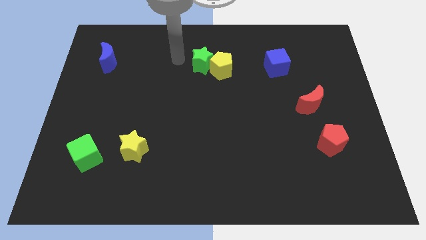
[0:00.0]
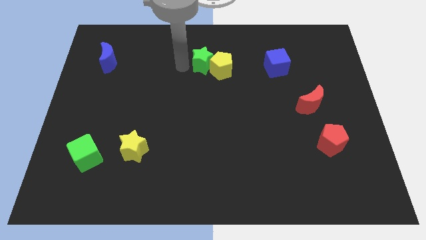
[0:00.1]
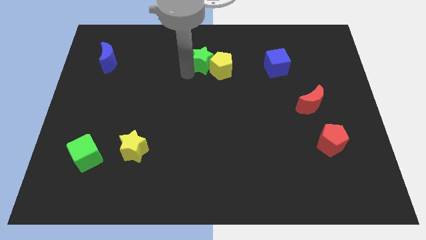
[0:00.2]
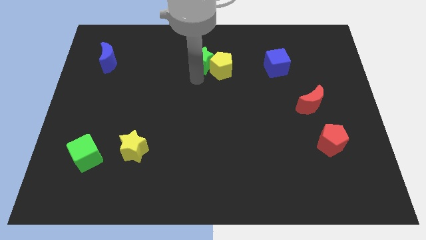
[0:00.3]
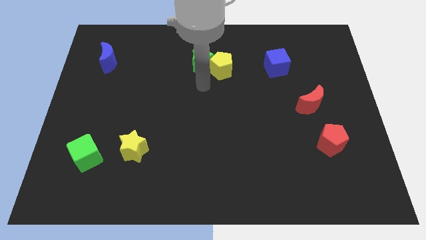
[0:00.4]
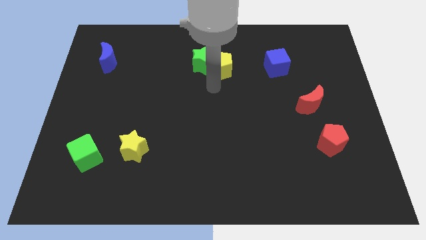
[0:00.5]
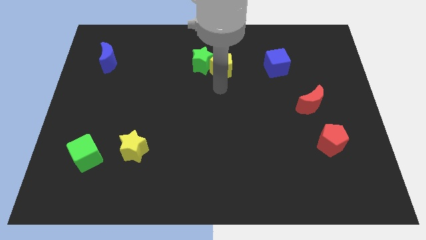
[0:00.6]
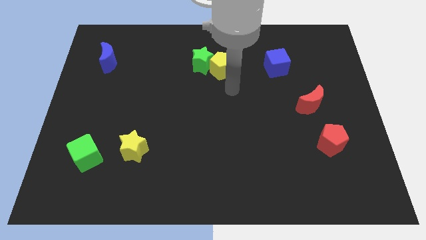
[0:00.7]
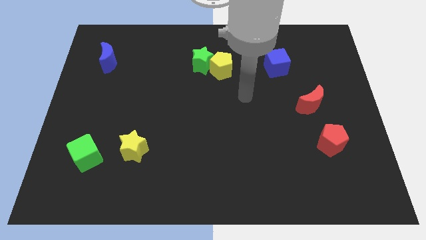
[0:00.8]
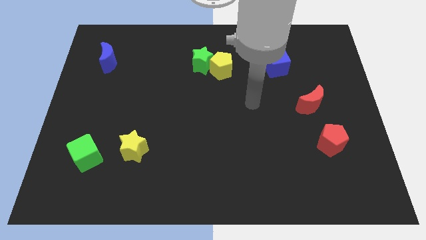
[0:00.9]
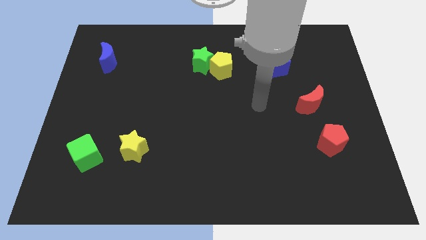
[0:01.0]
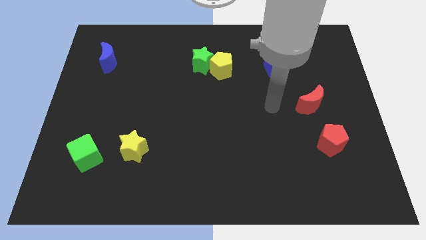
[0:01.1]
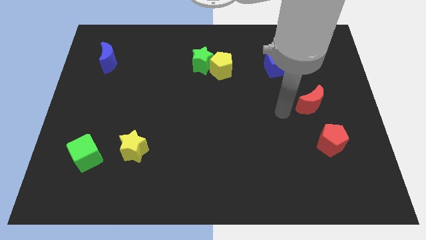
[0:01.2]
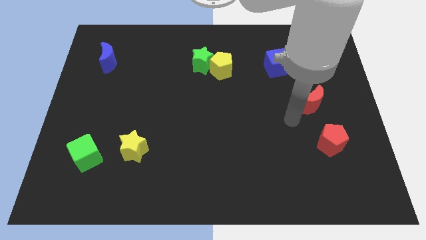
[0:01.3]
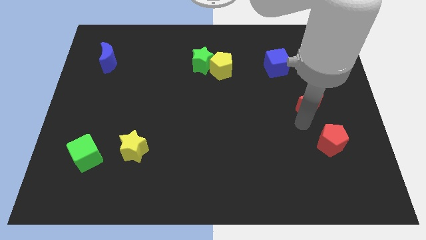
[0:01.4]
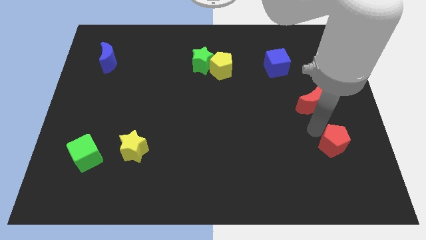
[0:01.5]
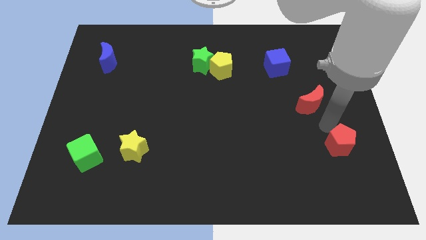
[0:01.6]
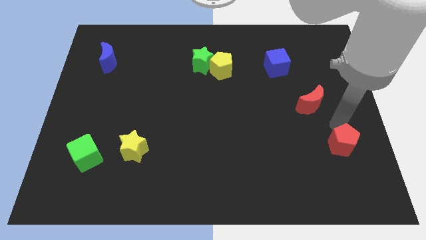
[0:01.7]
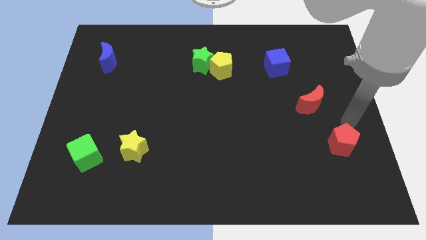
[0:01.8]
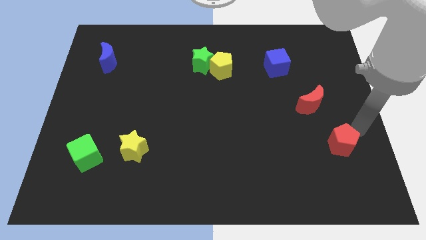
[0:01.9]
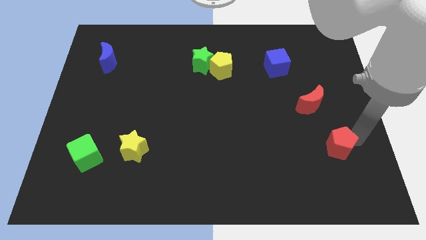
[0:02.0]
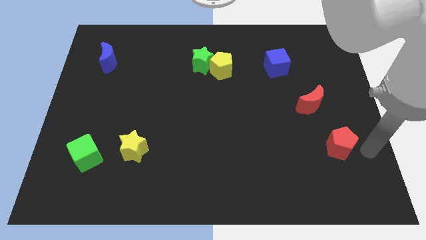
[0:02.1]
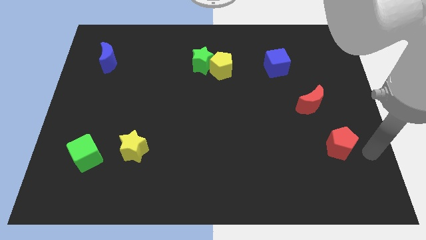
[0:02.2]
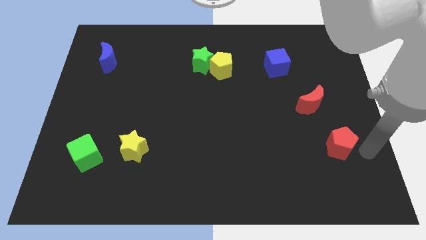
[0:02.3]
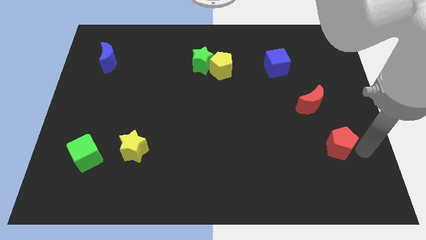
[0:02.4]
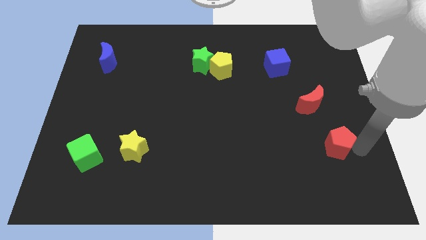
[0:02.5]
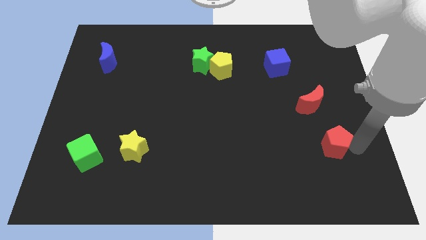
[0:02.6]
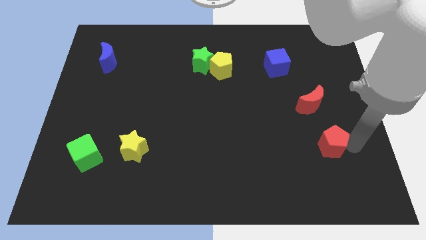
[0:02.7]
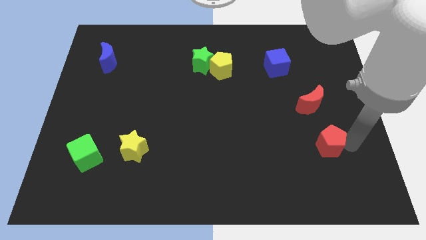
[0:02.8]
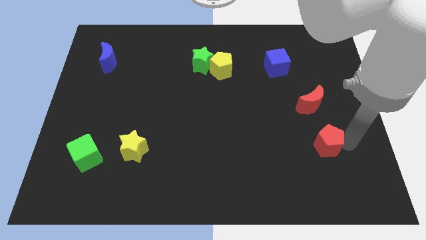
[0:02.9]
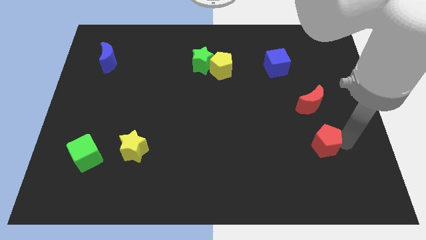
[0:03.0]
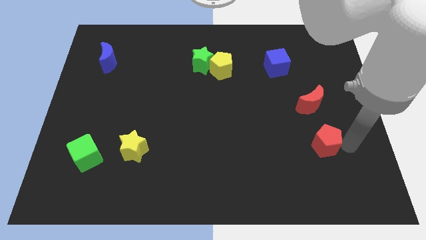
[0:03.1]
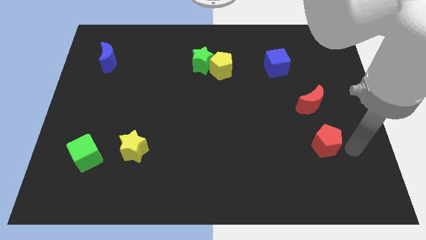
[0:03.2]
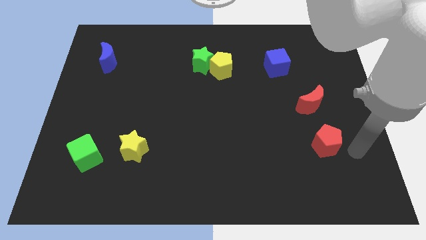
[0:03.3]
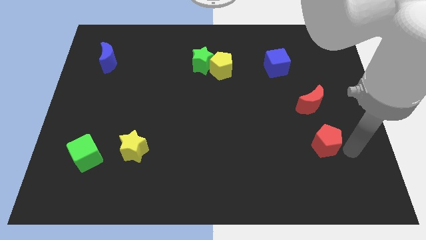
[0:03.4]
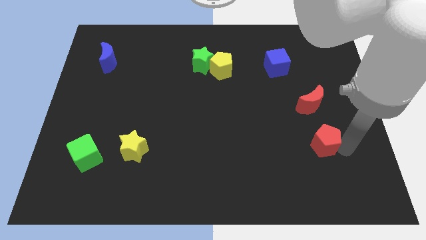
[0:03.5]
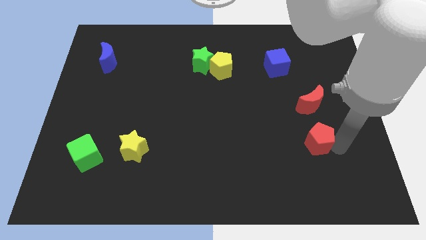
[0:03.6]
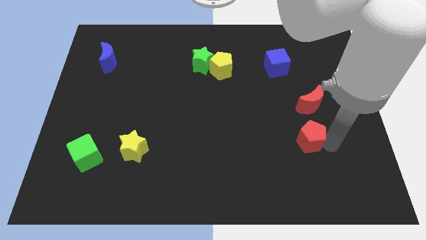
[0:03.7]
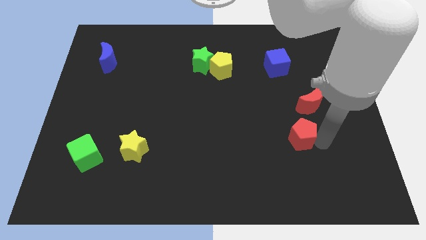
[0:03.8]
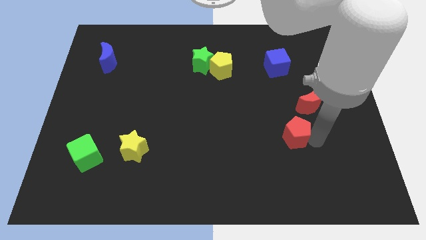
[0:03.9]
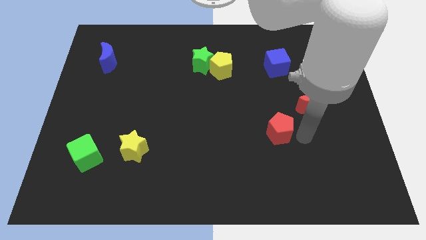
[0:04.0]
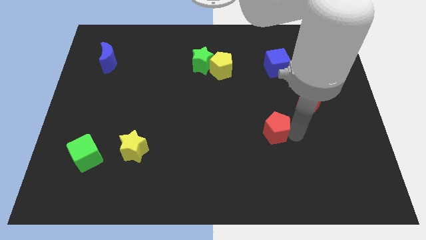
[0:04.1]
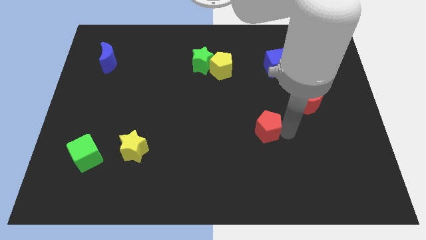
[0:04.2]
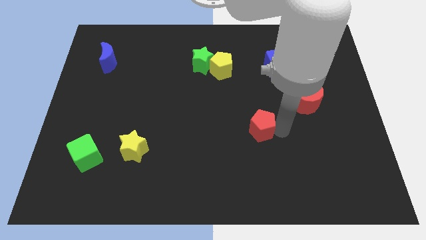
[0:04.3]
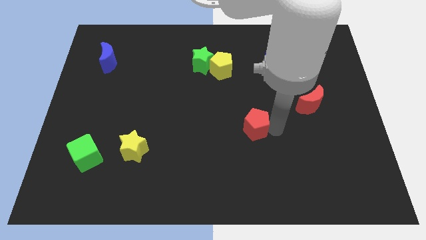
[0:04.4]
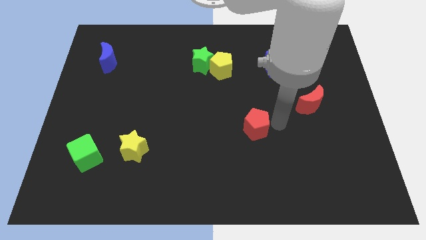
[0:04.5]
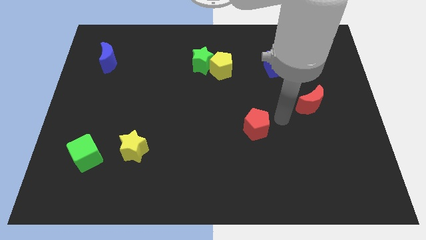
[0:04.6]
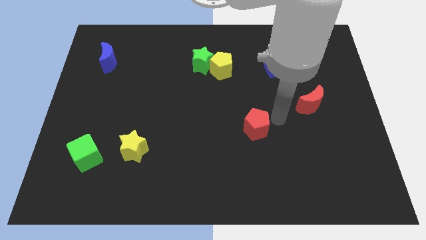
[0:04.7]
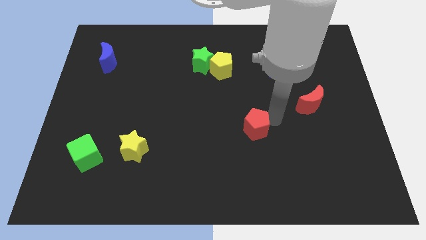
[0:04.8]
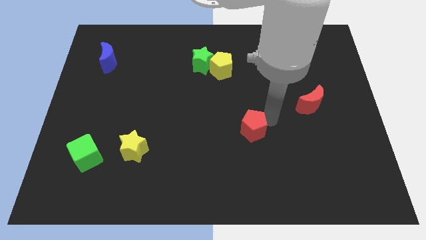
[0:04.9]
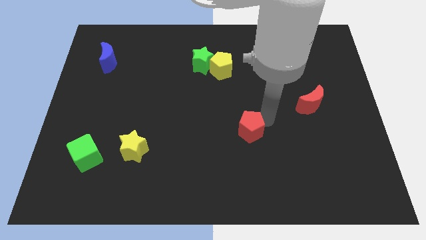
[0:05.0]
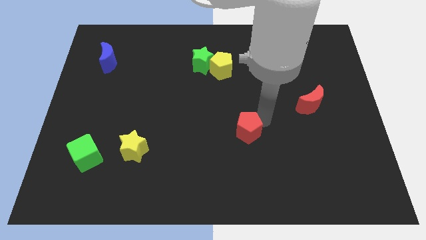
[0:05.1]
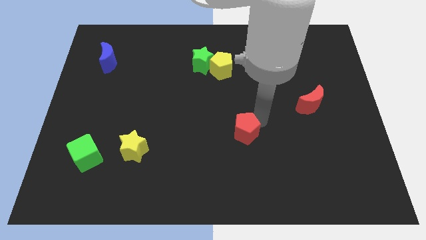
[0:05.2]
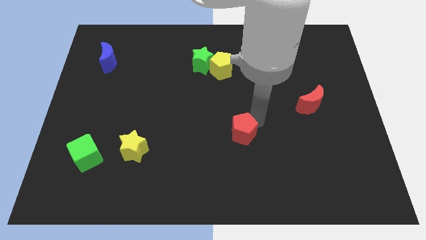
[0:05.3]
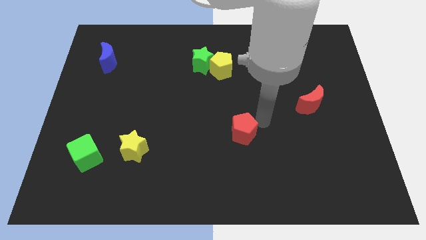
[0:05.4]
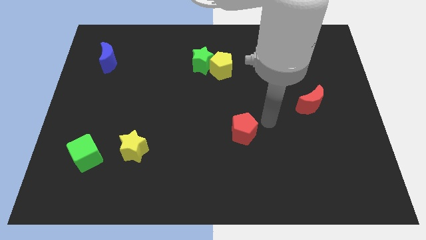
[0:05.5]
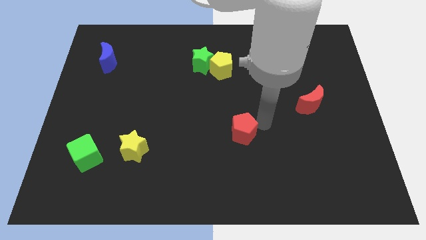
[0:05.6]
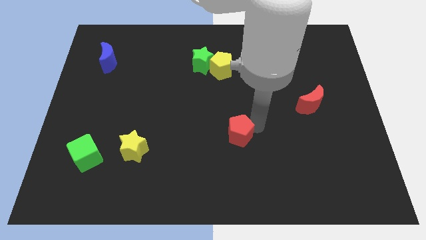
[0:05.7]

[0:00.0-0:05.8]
move the red pentagon left

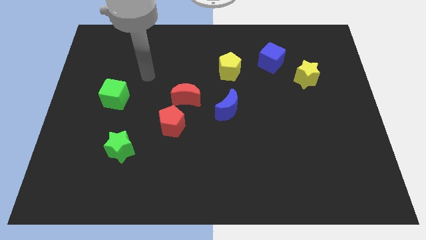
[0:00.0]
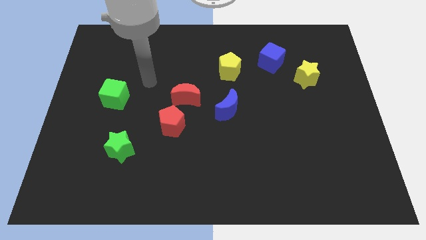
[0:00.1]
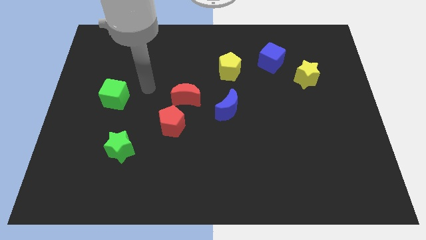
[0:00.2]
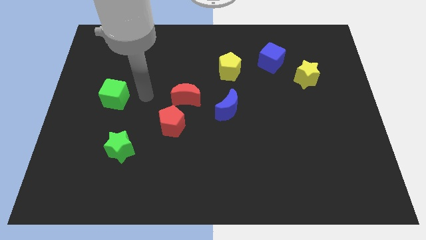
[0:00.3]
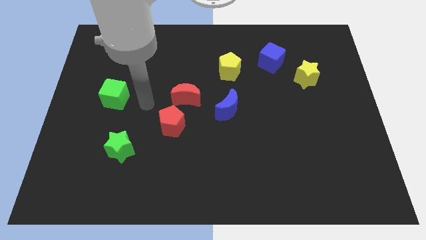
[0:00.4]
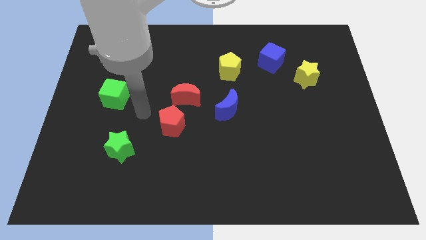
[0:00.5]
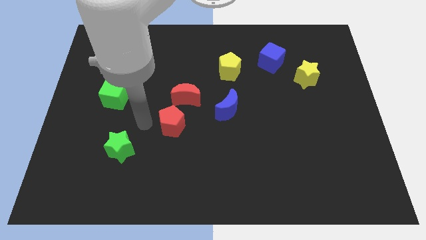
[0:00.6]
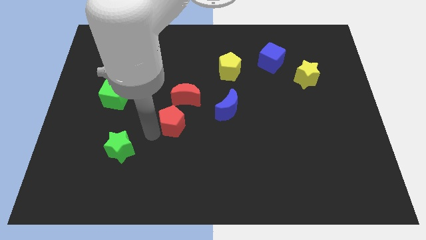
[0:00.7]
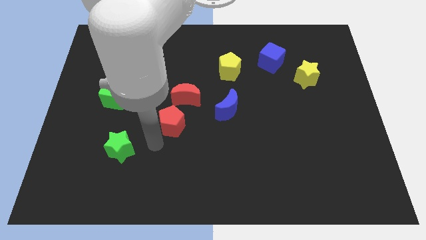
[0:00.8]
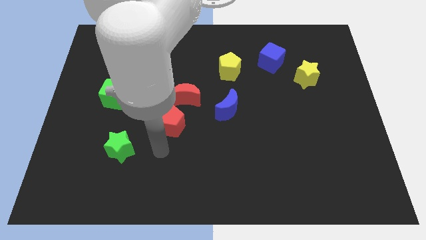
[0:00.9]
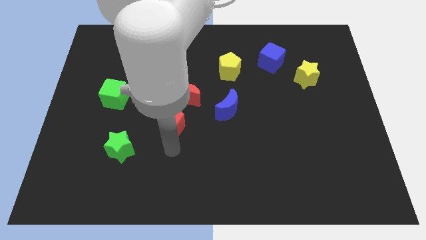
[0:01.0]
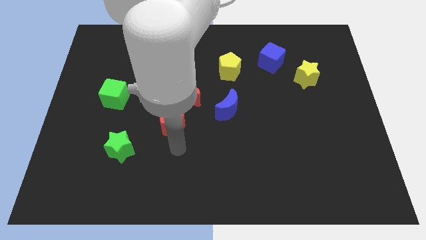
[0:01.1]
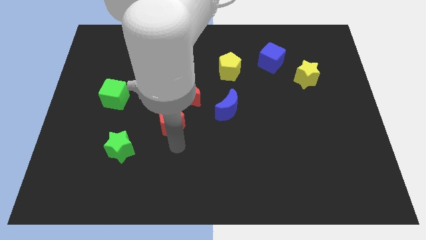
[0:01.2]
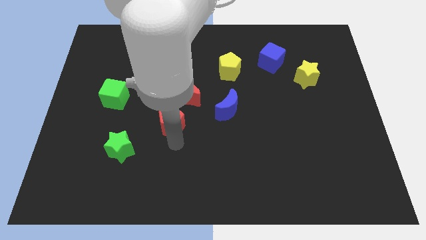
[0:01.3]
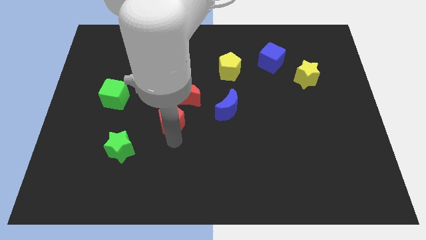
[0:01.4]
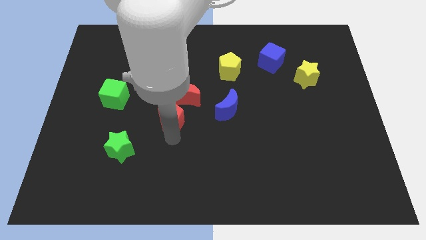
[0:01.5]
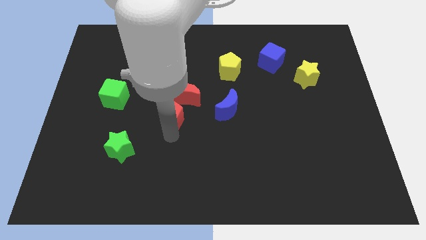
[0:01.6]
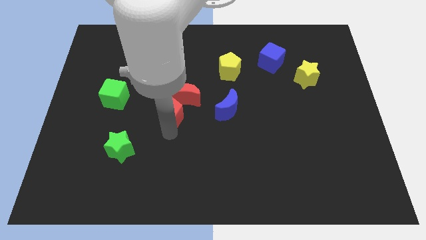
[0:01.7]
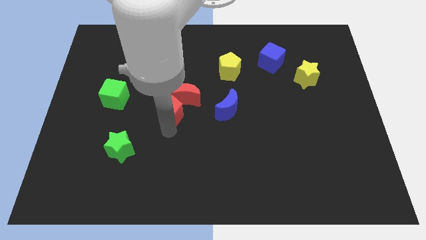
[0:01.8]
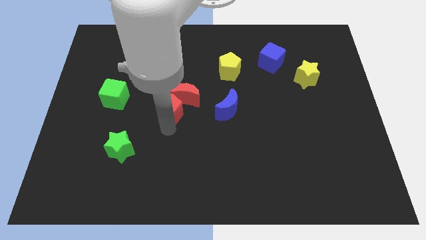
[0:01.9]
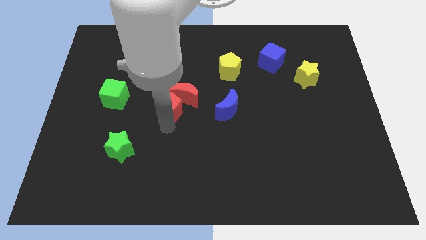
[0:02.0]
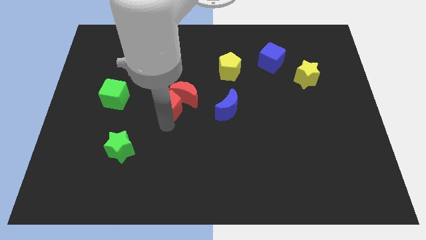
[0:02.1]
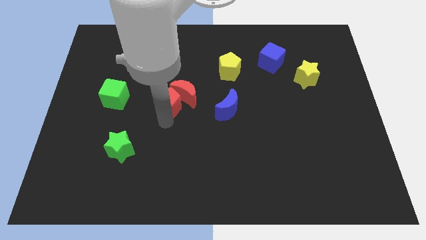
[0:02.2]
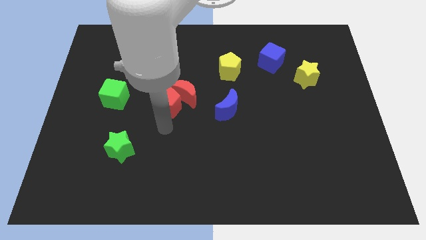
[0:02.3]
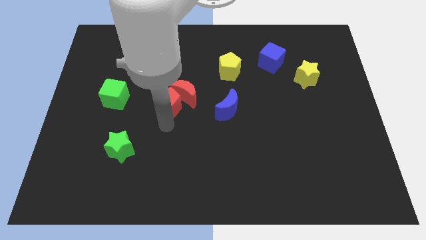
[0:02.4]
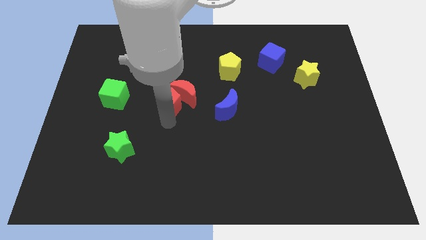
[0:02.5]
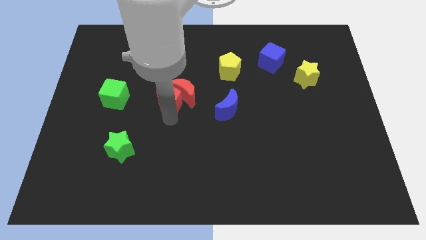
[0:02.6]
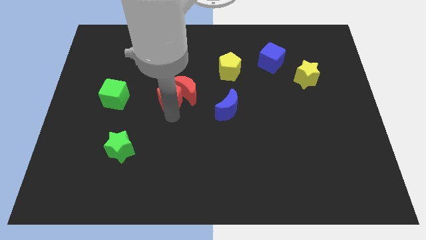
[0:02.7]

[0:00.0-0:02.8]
move the red pentagon up a bit
